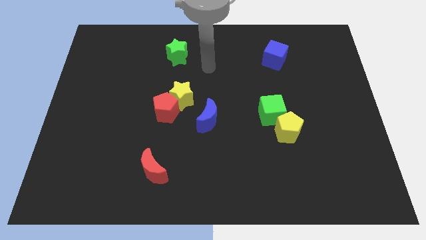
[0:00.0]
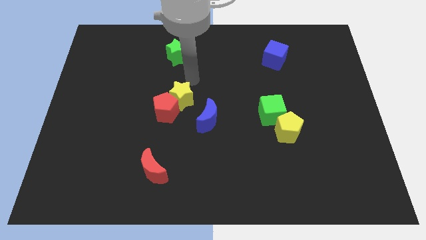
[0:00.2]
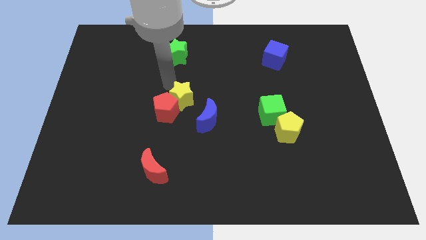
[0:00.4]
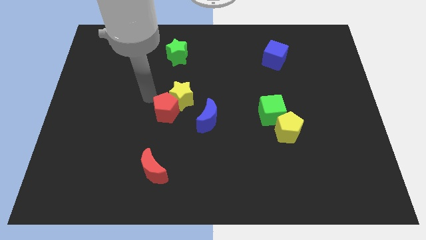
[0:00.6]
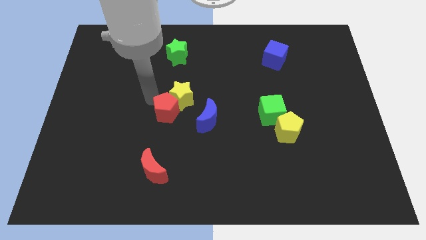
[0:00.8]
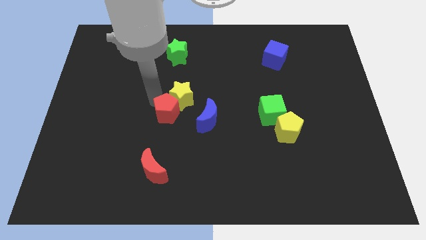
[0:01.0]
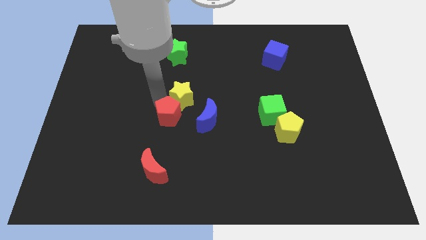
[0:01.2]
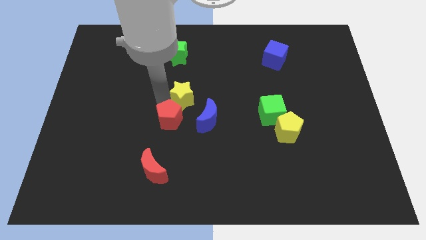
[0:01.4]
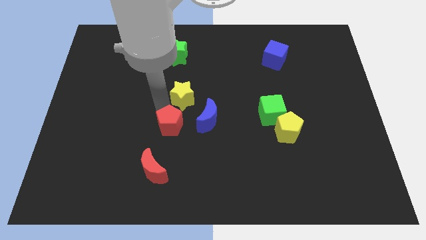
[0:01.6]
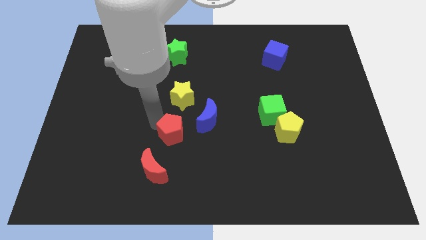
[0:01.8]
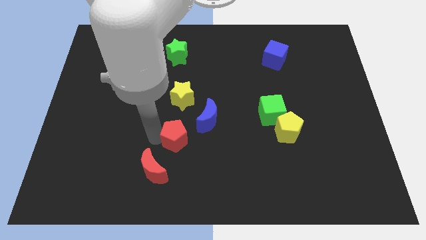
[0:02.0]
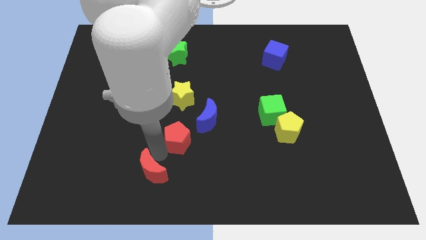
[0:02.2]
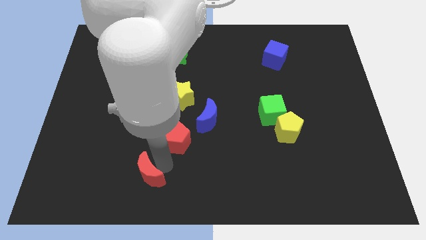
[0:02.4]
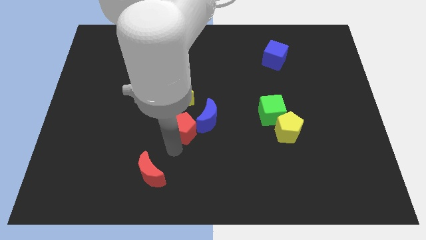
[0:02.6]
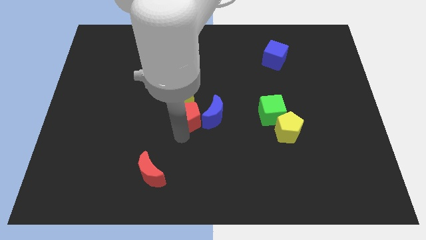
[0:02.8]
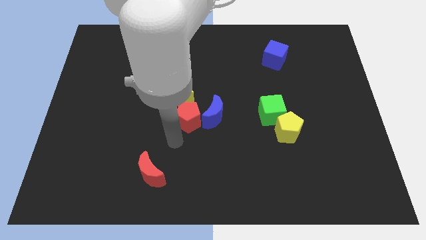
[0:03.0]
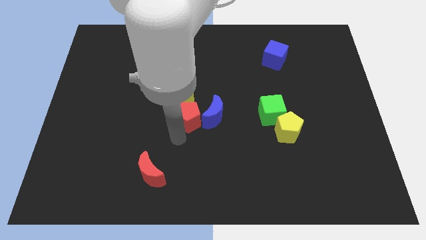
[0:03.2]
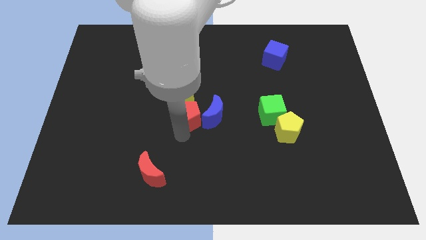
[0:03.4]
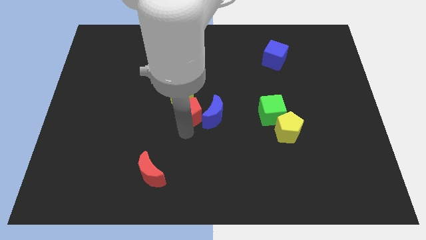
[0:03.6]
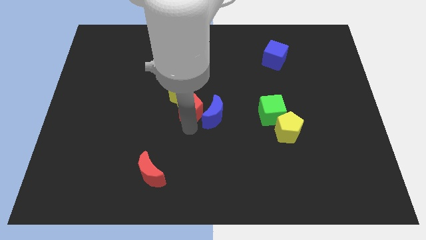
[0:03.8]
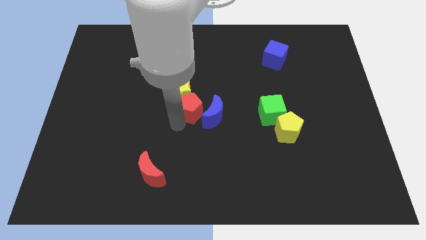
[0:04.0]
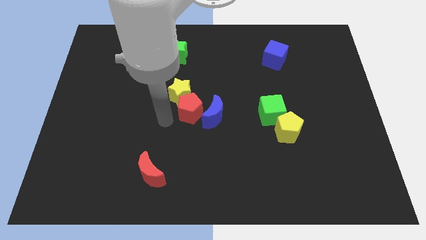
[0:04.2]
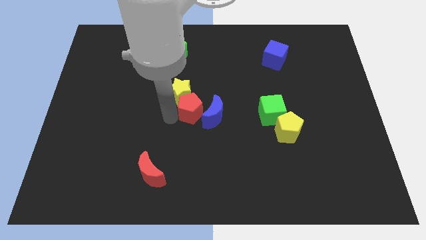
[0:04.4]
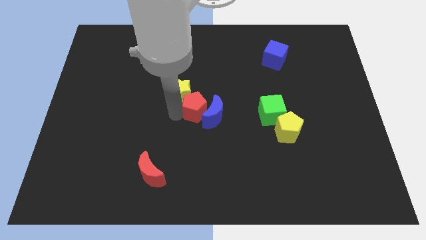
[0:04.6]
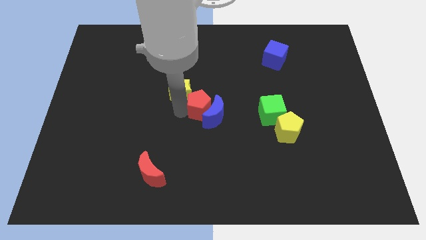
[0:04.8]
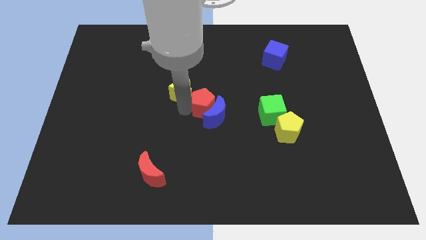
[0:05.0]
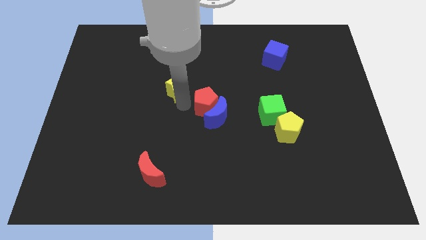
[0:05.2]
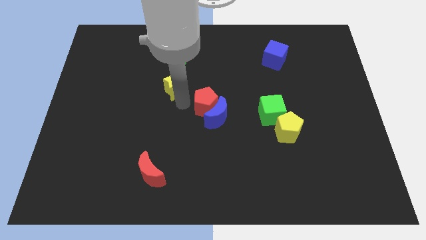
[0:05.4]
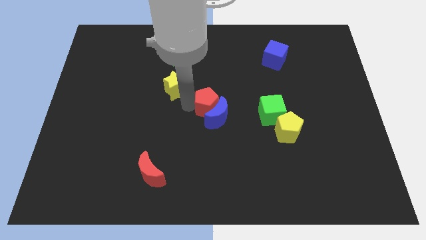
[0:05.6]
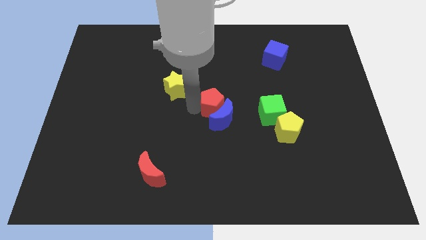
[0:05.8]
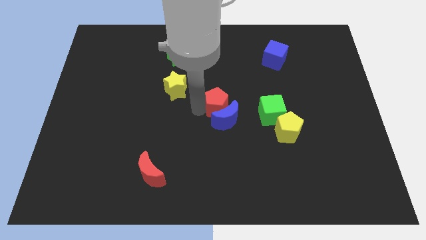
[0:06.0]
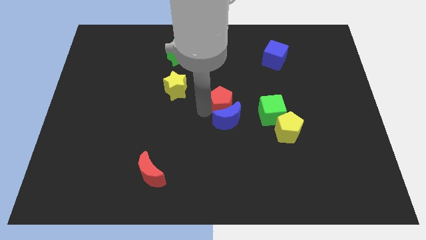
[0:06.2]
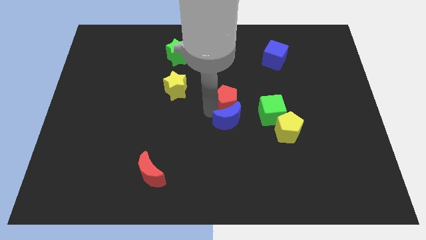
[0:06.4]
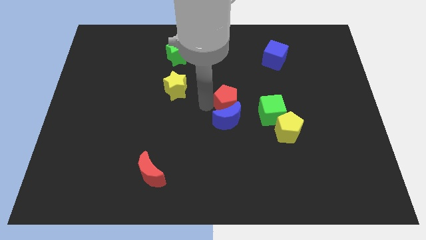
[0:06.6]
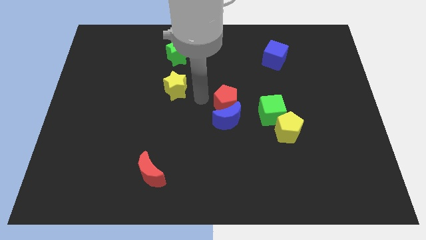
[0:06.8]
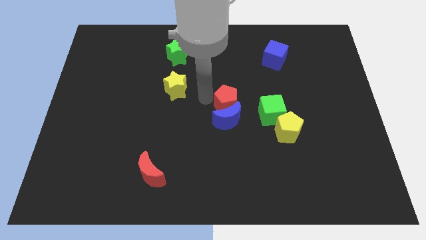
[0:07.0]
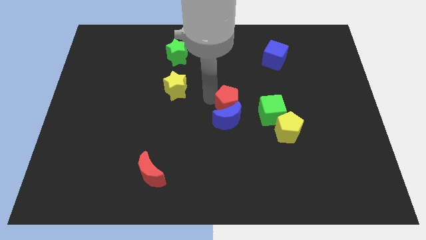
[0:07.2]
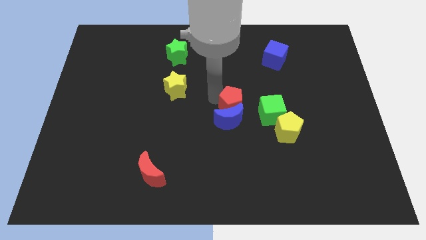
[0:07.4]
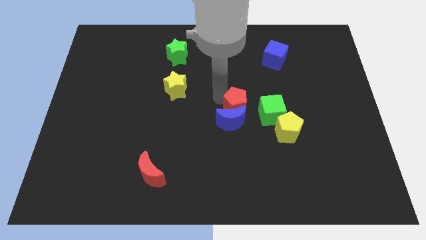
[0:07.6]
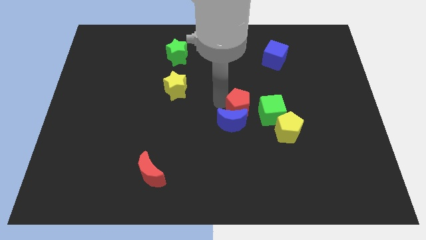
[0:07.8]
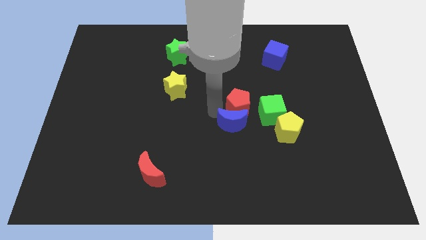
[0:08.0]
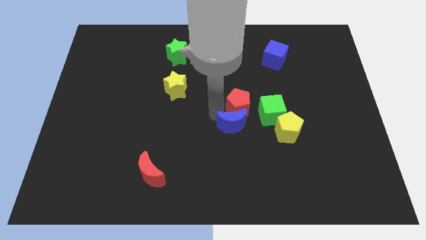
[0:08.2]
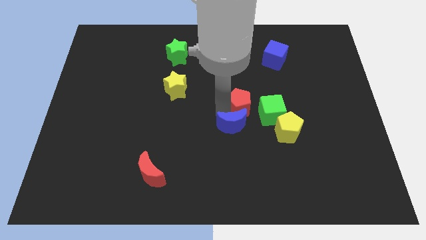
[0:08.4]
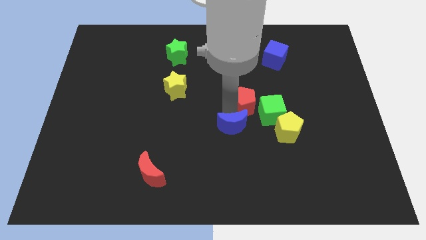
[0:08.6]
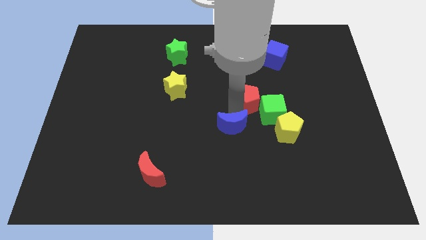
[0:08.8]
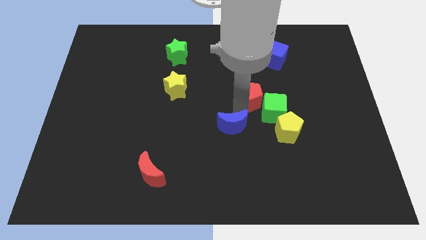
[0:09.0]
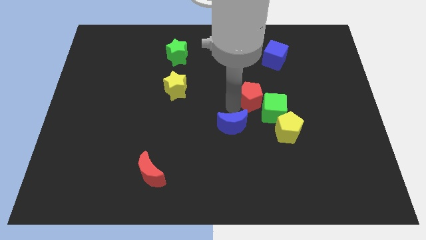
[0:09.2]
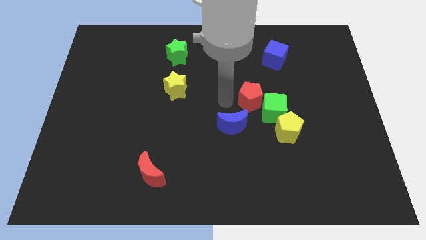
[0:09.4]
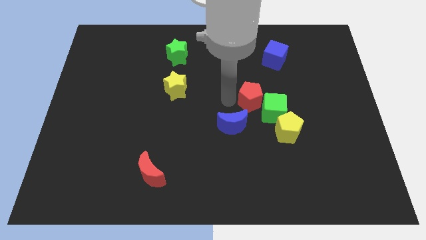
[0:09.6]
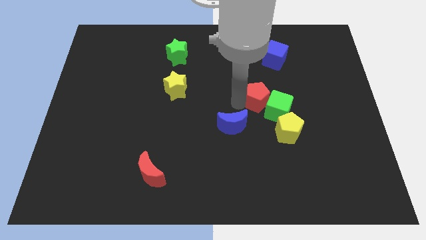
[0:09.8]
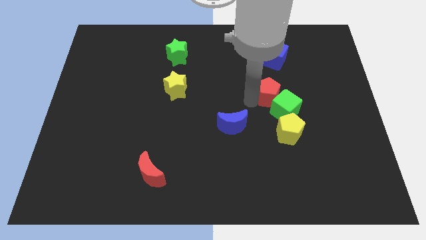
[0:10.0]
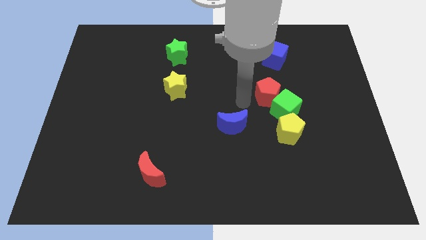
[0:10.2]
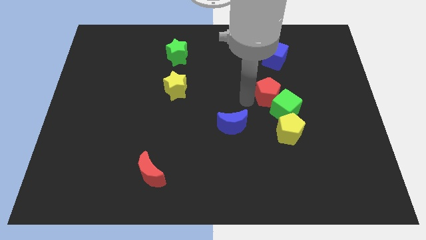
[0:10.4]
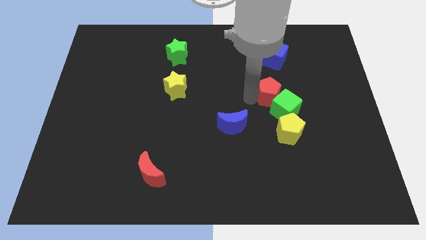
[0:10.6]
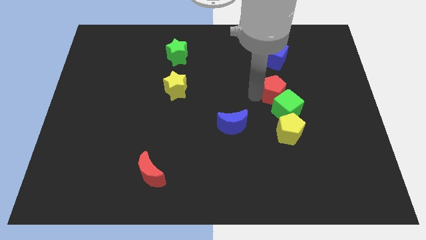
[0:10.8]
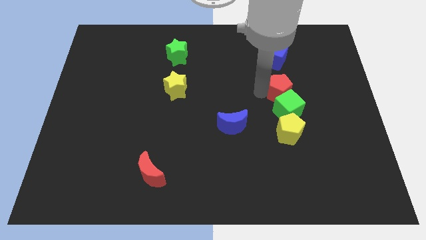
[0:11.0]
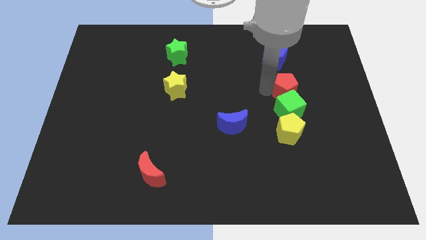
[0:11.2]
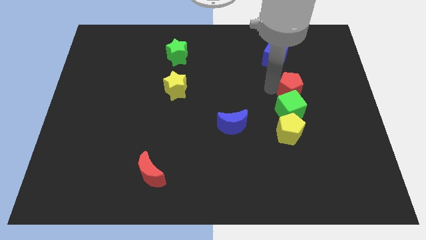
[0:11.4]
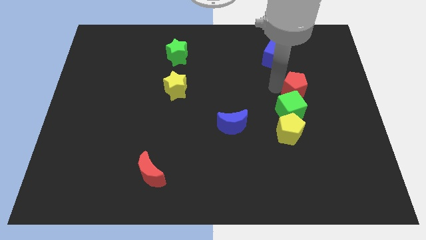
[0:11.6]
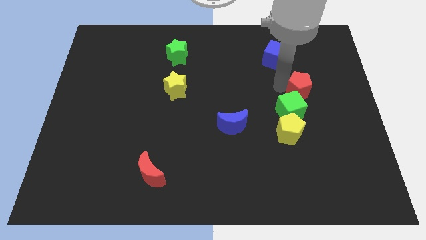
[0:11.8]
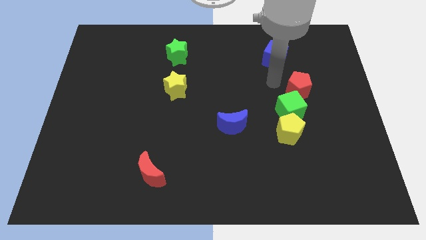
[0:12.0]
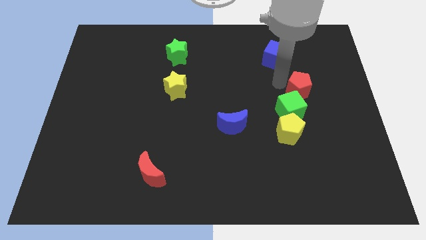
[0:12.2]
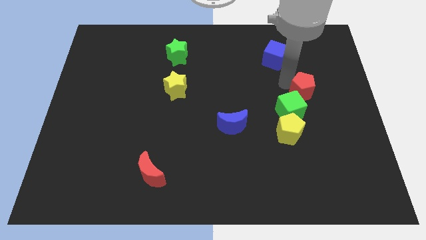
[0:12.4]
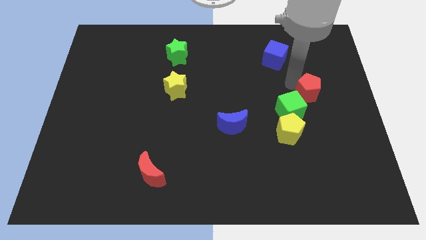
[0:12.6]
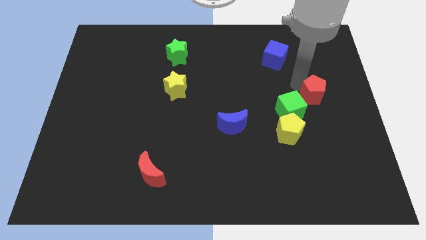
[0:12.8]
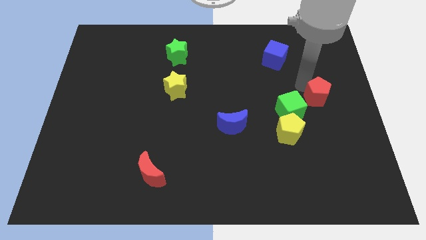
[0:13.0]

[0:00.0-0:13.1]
move the red pentagon to the right side

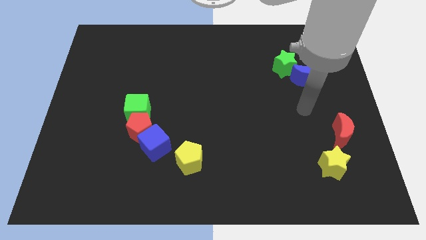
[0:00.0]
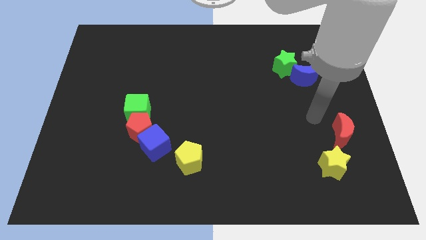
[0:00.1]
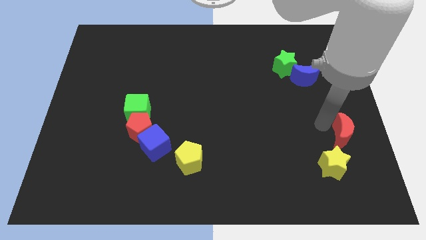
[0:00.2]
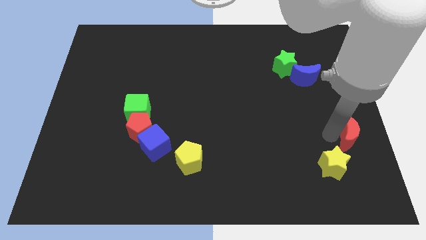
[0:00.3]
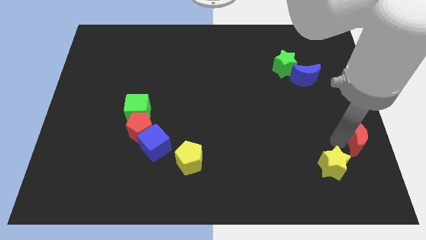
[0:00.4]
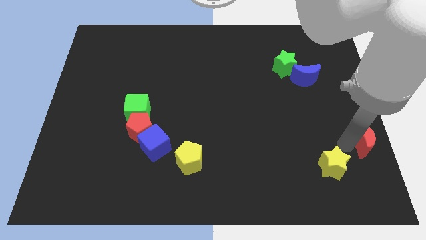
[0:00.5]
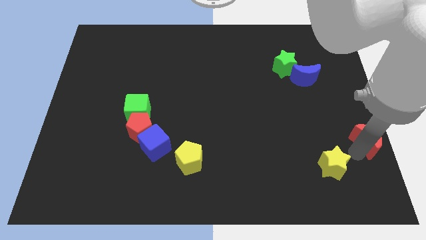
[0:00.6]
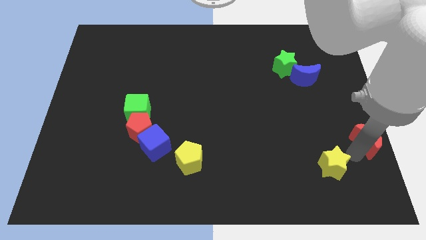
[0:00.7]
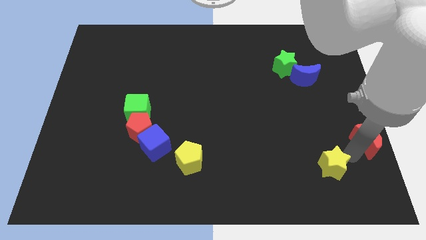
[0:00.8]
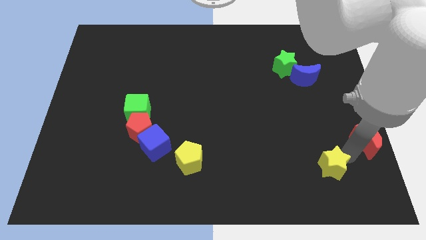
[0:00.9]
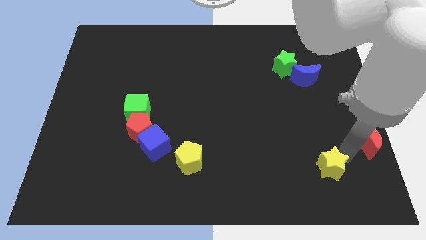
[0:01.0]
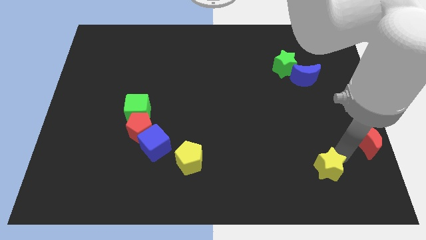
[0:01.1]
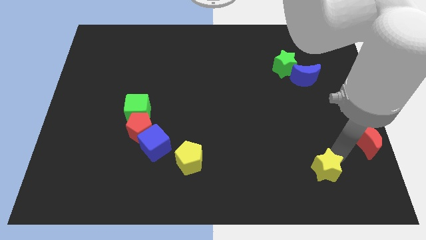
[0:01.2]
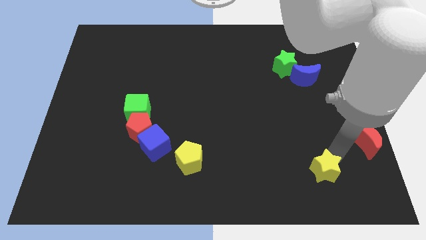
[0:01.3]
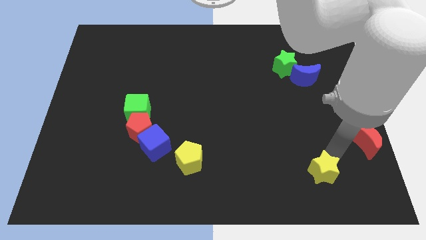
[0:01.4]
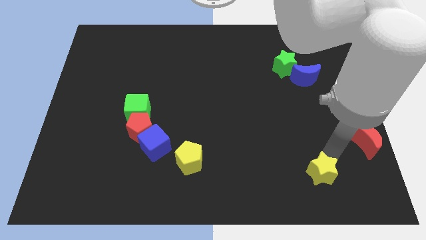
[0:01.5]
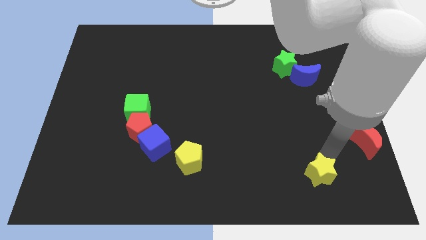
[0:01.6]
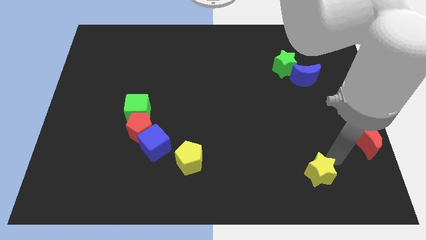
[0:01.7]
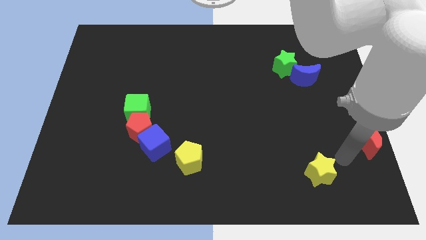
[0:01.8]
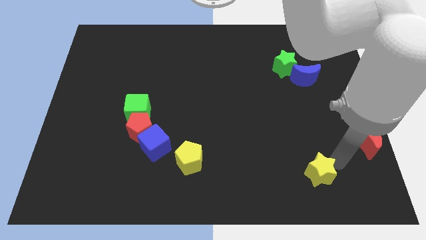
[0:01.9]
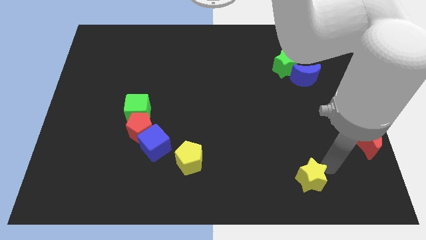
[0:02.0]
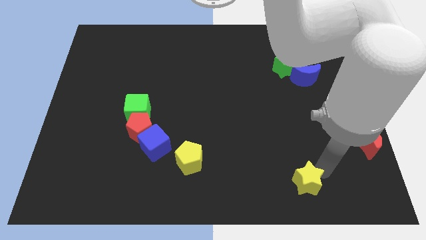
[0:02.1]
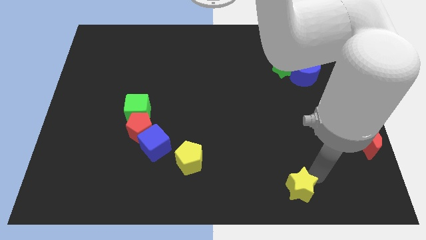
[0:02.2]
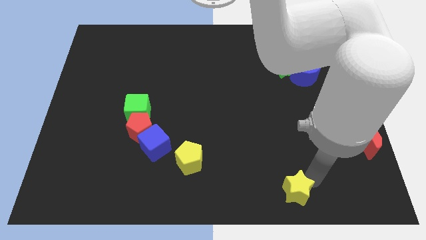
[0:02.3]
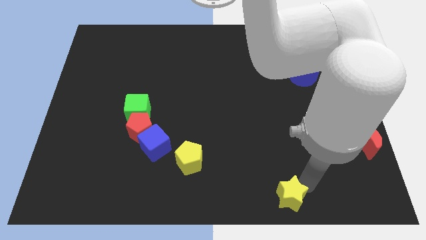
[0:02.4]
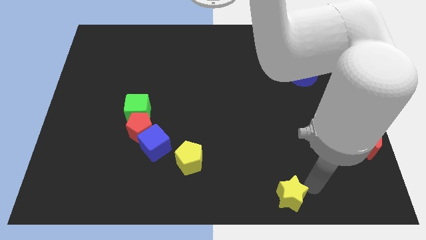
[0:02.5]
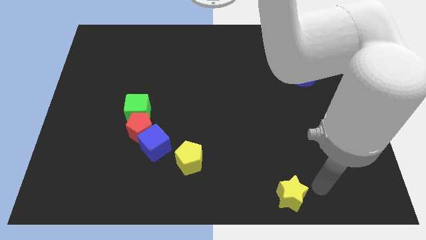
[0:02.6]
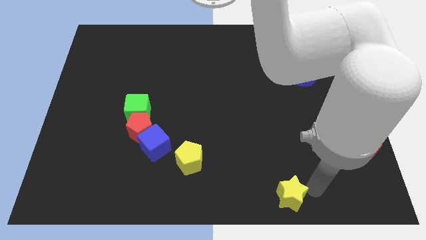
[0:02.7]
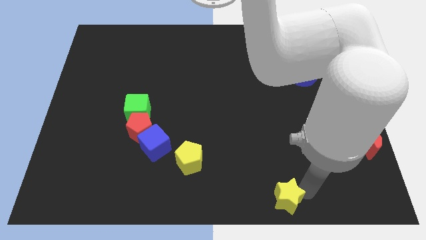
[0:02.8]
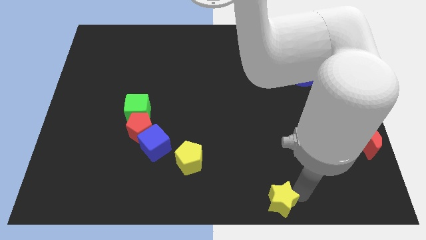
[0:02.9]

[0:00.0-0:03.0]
push the yellow star to the bottom side
